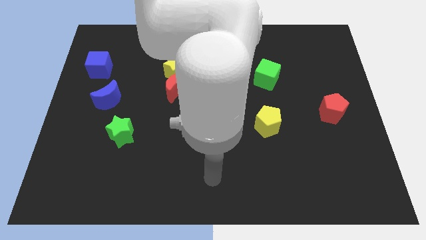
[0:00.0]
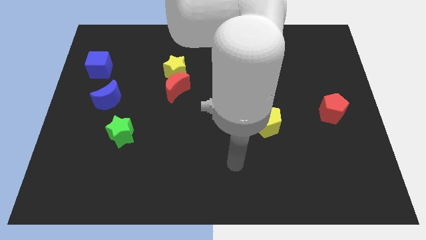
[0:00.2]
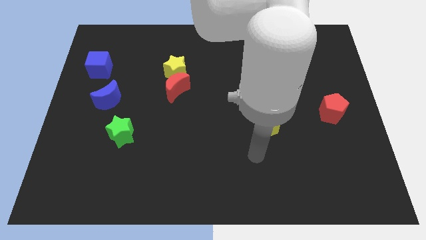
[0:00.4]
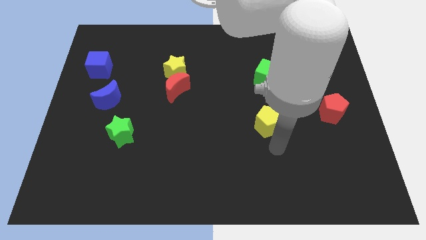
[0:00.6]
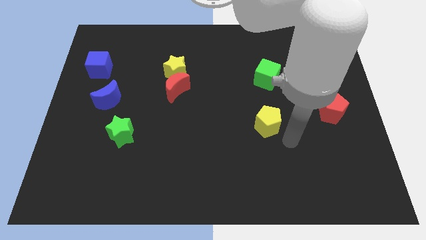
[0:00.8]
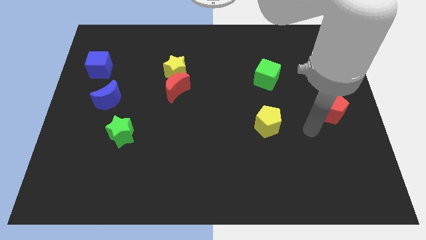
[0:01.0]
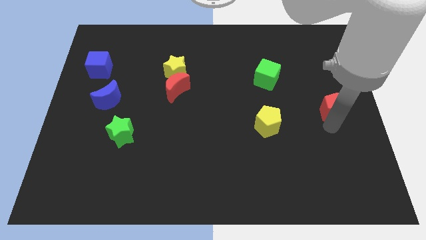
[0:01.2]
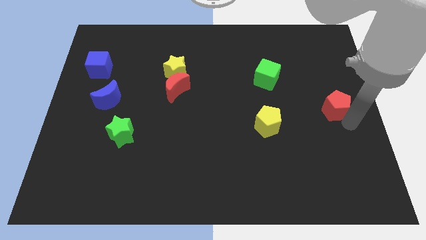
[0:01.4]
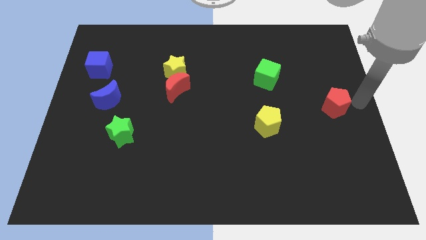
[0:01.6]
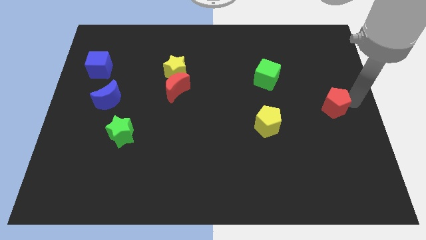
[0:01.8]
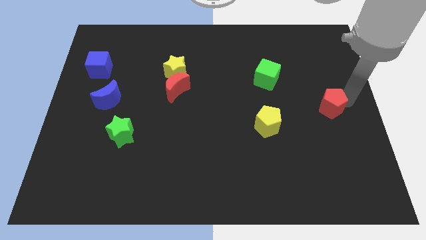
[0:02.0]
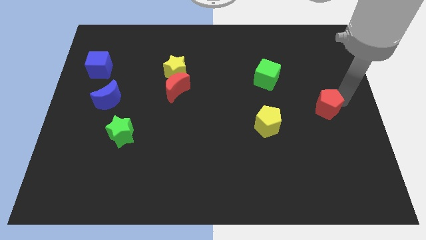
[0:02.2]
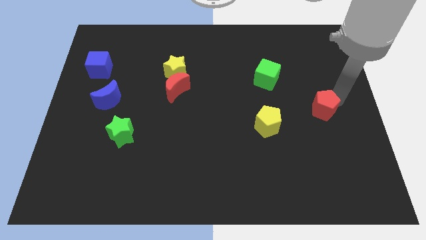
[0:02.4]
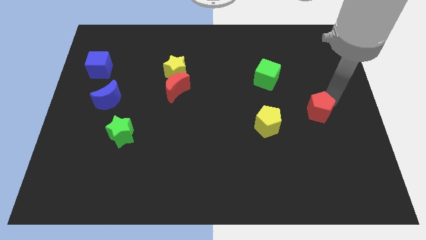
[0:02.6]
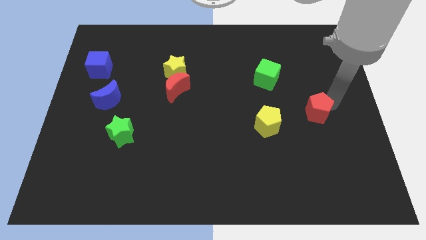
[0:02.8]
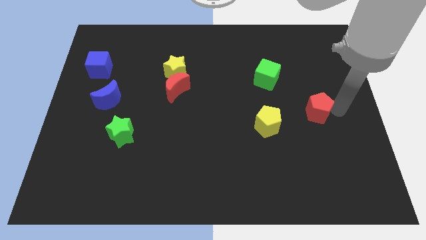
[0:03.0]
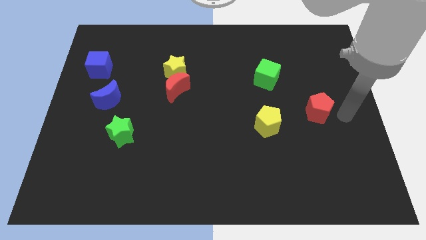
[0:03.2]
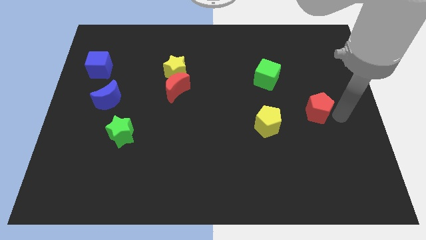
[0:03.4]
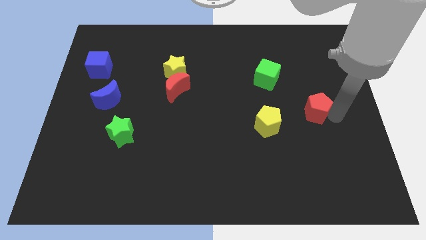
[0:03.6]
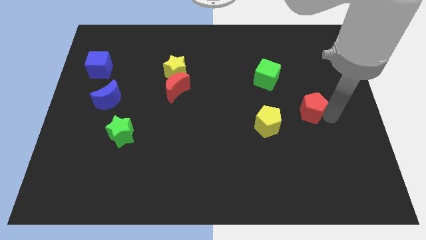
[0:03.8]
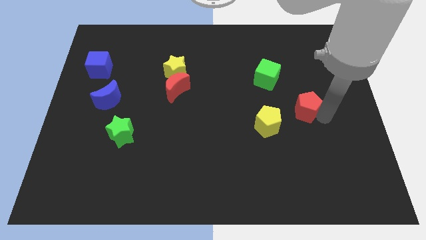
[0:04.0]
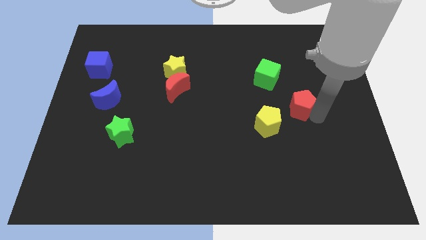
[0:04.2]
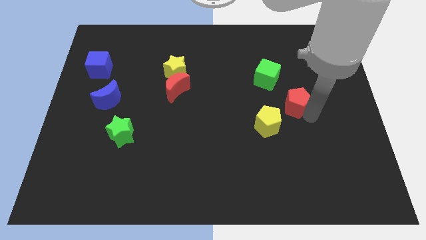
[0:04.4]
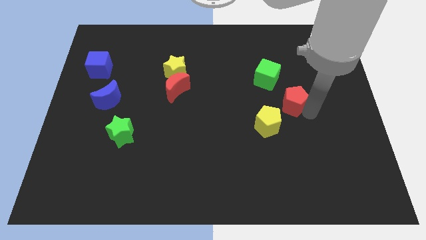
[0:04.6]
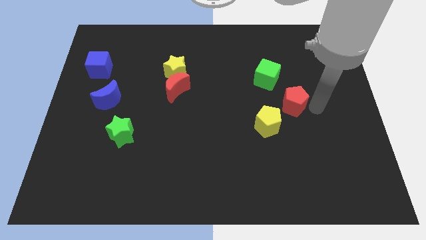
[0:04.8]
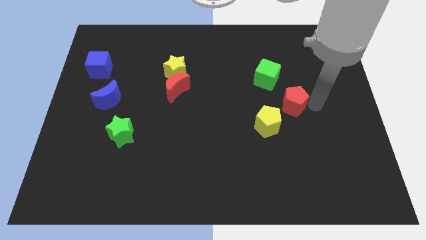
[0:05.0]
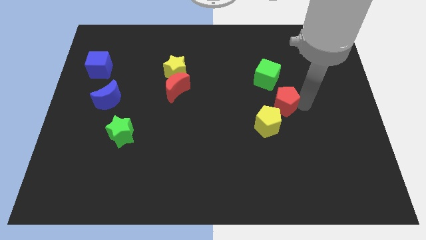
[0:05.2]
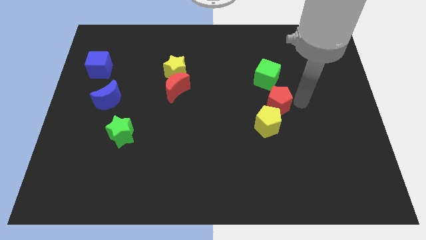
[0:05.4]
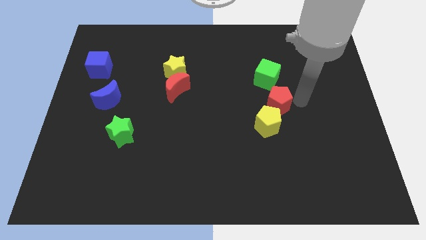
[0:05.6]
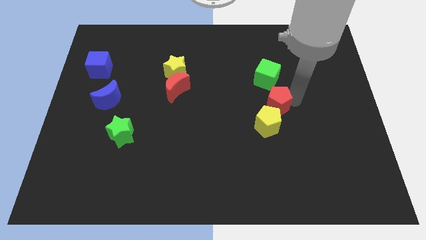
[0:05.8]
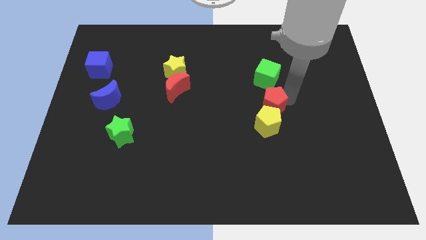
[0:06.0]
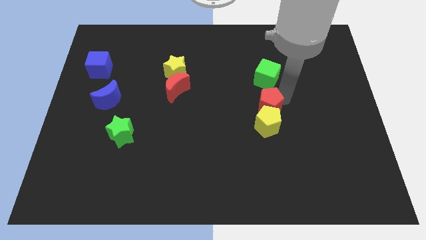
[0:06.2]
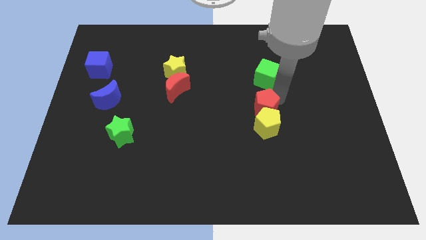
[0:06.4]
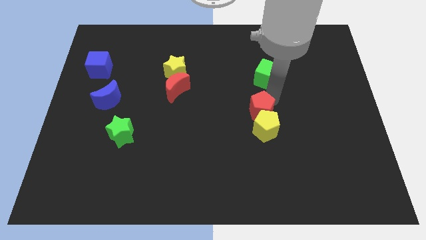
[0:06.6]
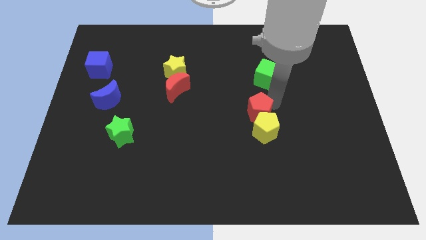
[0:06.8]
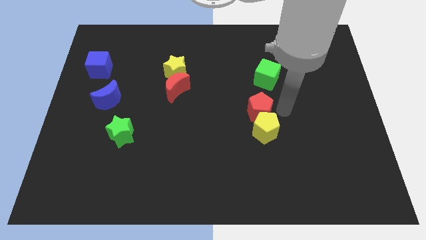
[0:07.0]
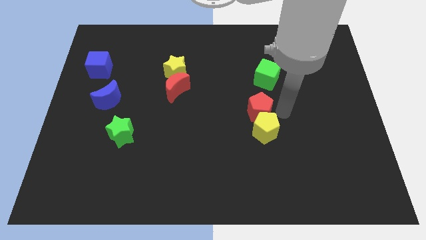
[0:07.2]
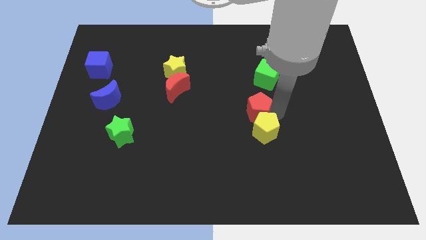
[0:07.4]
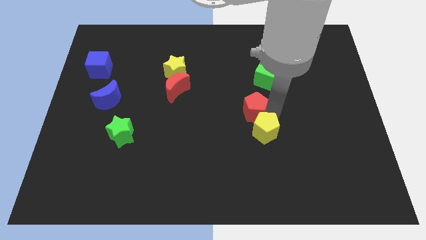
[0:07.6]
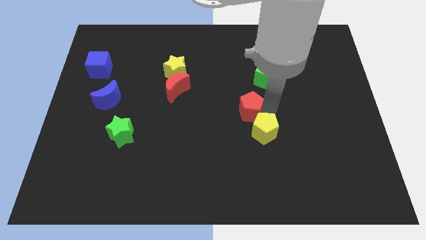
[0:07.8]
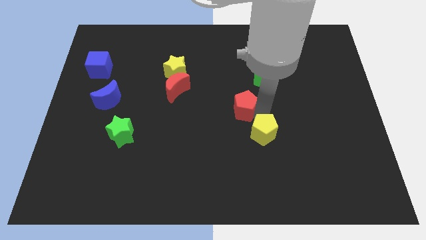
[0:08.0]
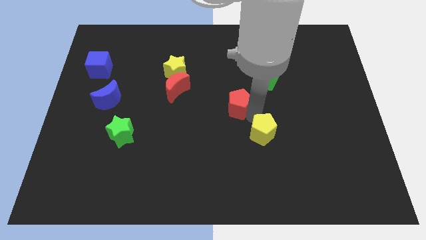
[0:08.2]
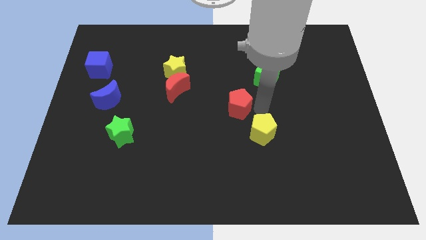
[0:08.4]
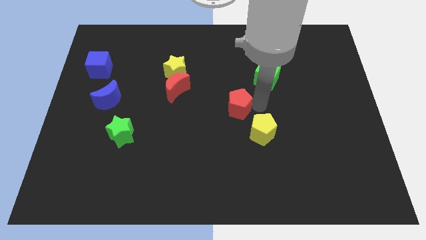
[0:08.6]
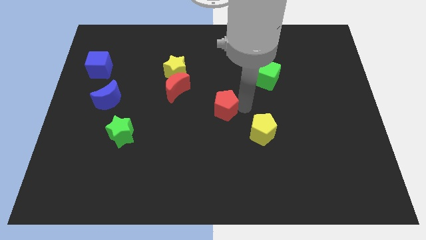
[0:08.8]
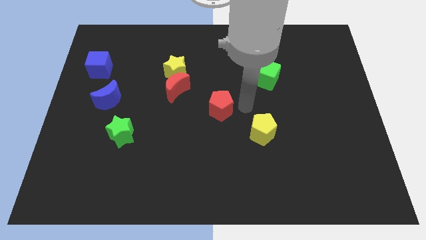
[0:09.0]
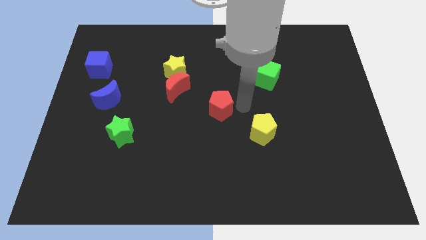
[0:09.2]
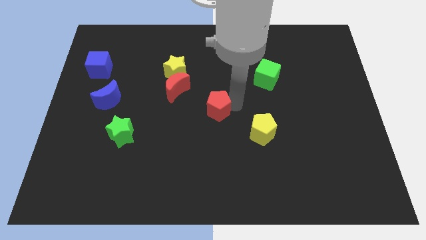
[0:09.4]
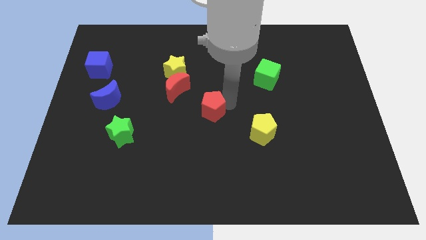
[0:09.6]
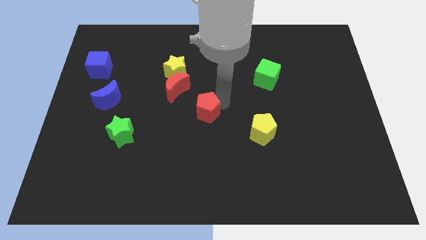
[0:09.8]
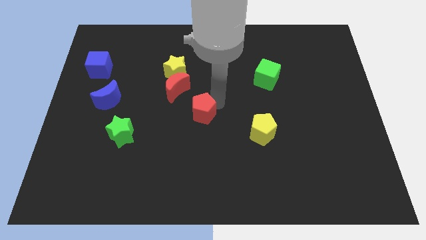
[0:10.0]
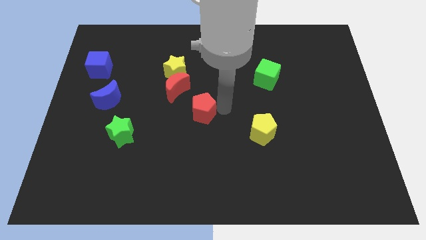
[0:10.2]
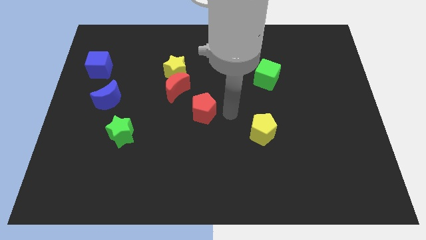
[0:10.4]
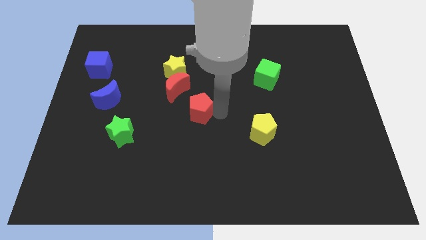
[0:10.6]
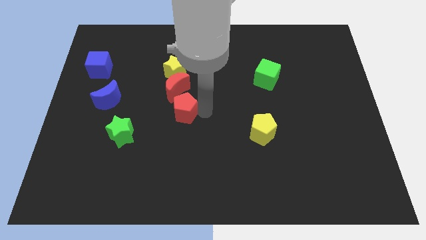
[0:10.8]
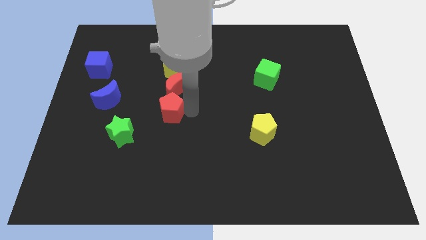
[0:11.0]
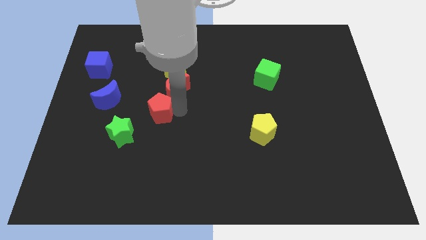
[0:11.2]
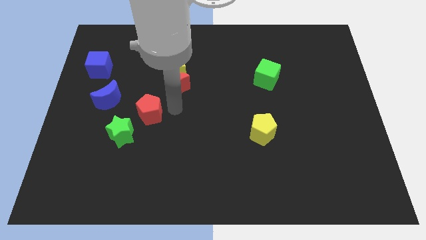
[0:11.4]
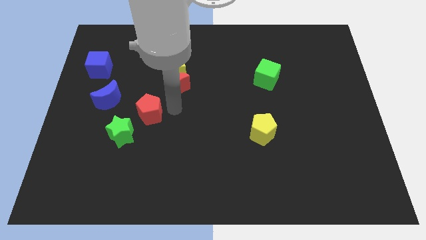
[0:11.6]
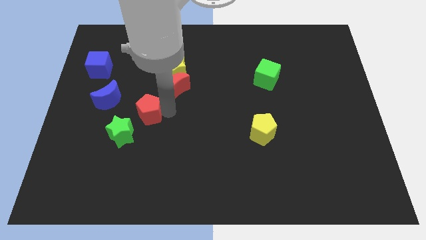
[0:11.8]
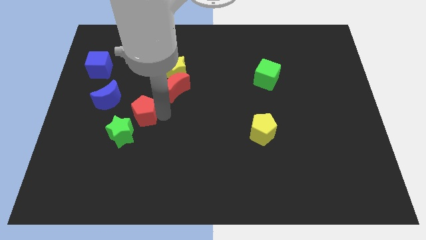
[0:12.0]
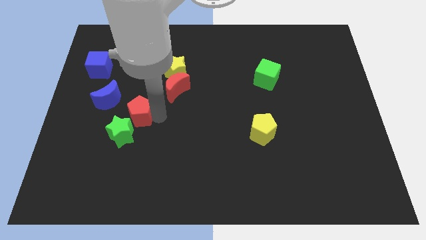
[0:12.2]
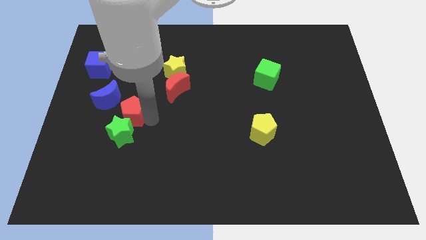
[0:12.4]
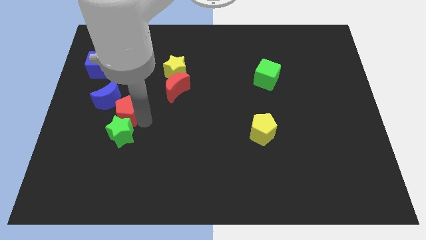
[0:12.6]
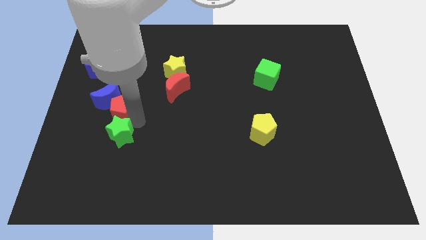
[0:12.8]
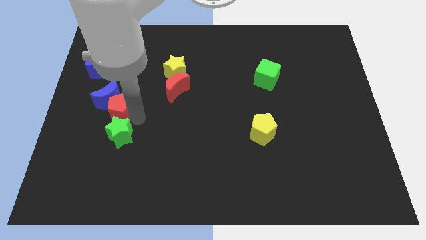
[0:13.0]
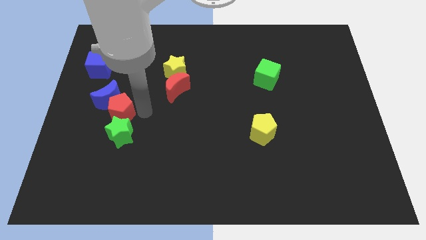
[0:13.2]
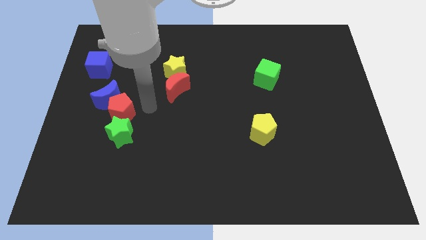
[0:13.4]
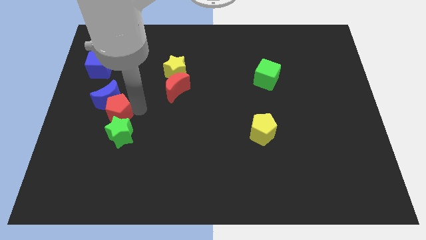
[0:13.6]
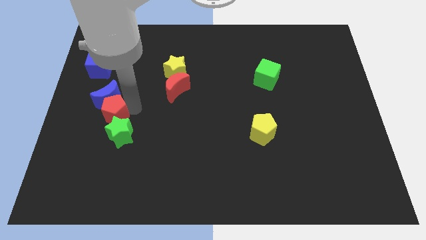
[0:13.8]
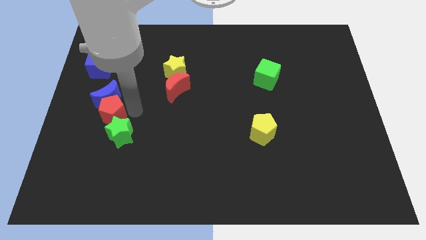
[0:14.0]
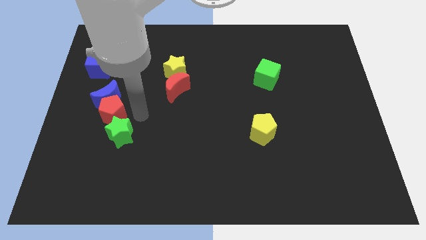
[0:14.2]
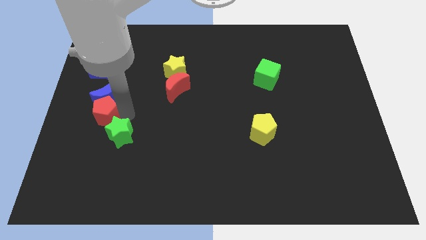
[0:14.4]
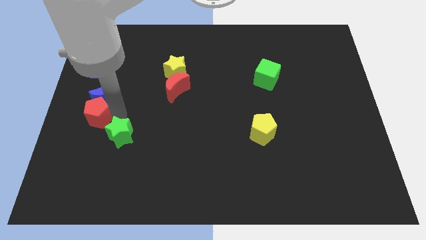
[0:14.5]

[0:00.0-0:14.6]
push the red pentagon to the left side
